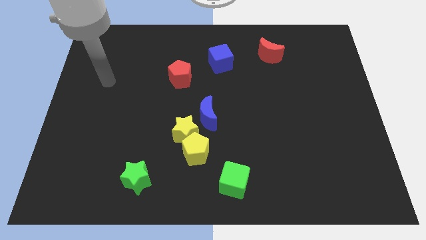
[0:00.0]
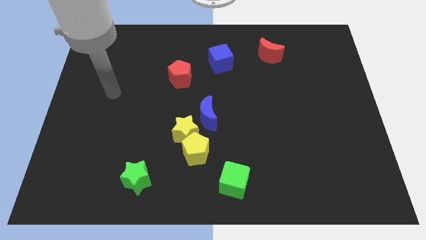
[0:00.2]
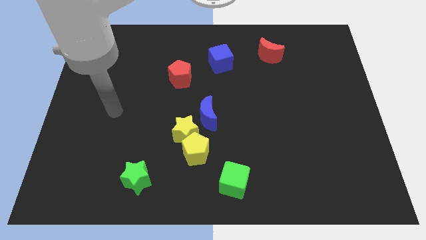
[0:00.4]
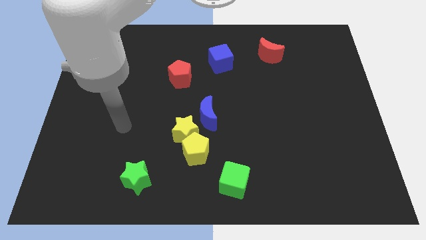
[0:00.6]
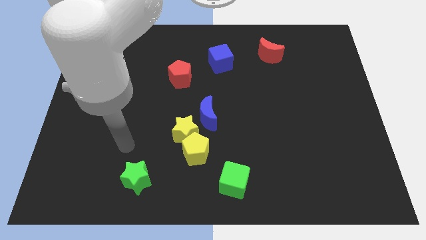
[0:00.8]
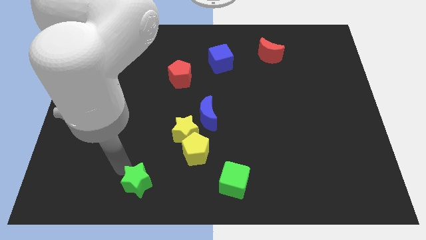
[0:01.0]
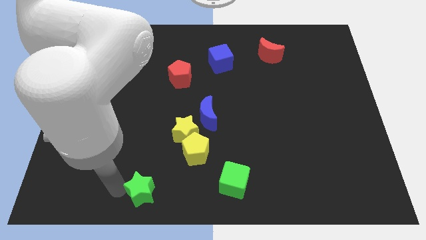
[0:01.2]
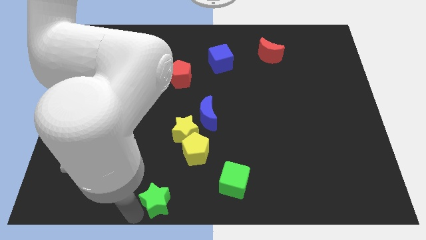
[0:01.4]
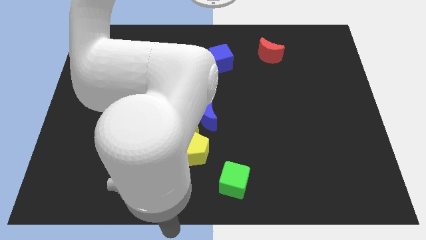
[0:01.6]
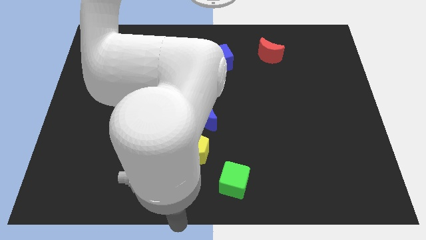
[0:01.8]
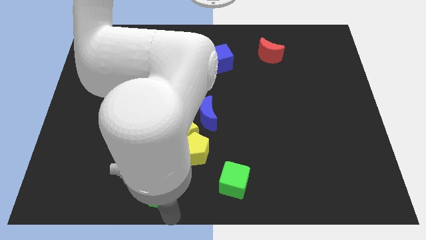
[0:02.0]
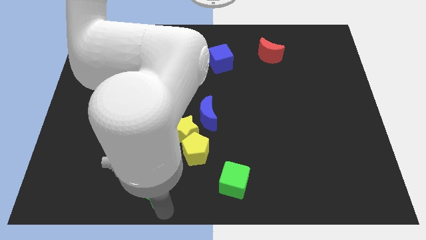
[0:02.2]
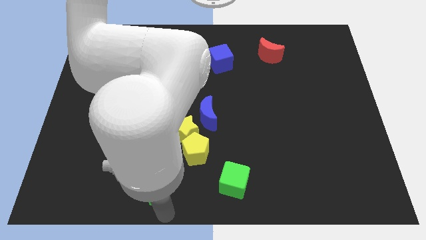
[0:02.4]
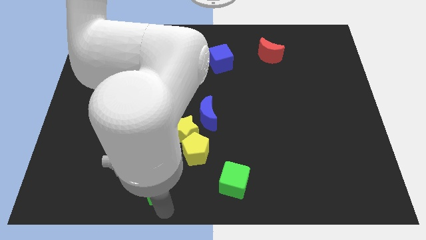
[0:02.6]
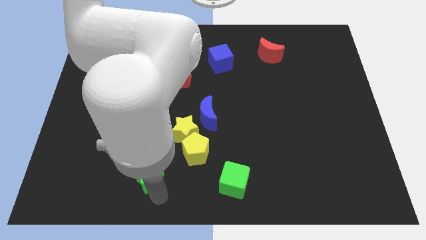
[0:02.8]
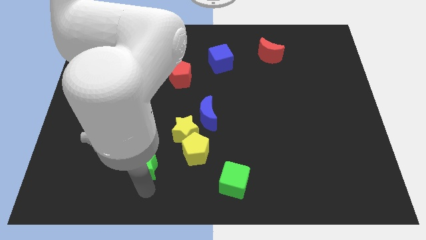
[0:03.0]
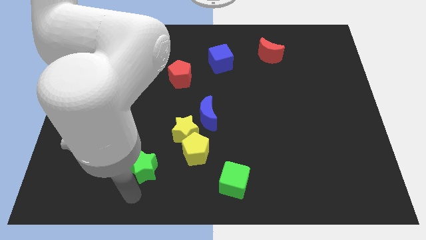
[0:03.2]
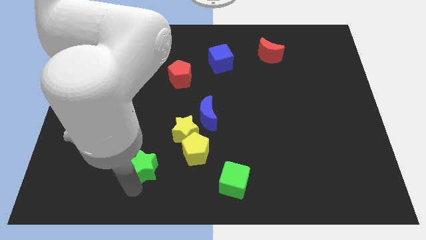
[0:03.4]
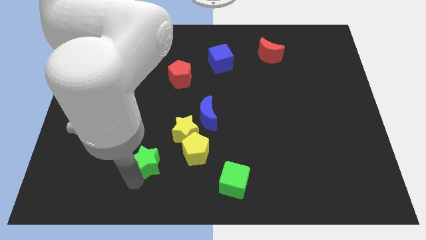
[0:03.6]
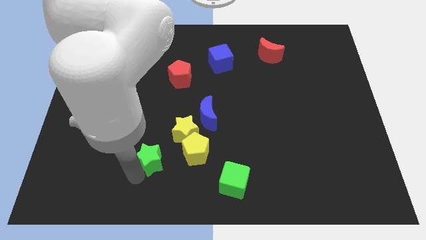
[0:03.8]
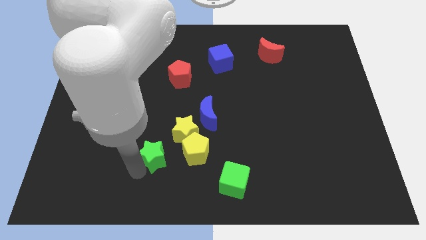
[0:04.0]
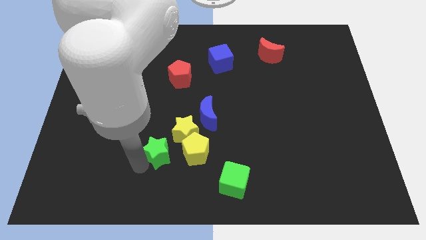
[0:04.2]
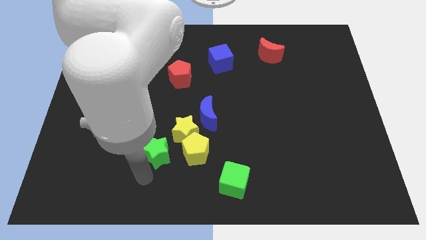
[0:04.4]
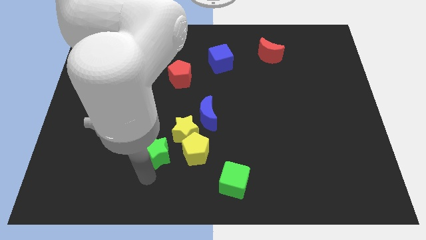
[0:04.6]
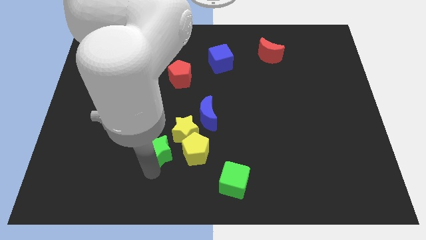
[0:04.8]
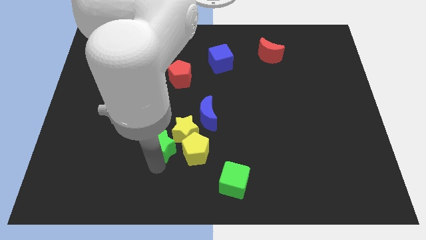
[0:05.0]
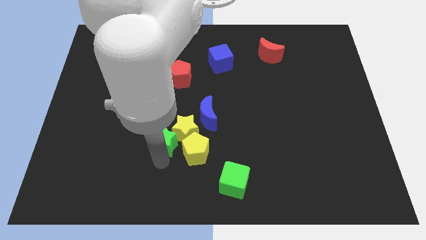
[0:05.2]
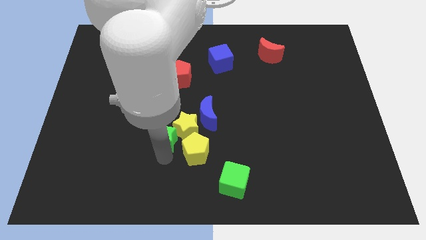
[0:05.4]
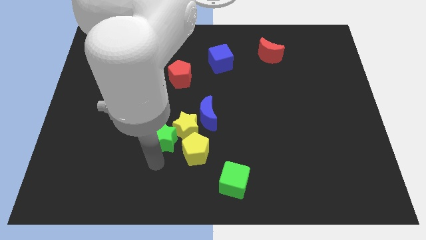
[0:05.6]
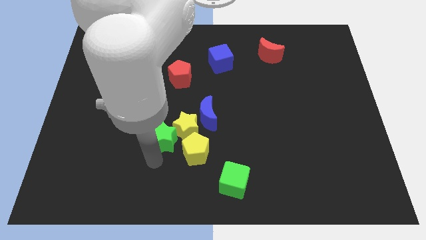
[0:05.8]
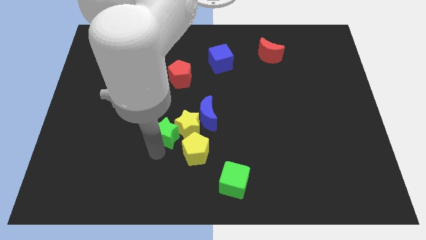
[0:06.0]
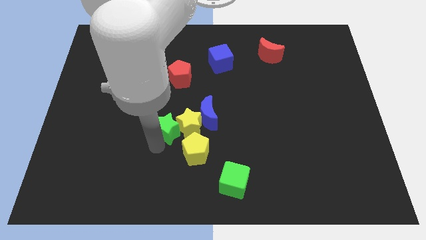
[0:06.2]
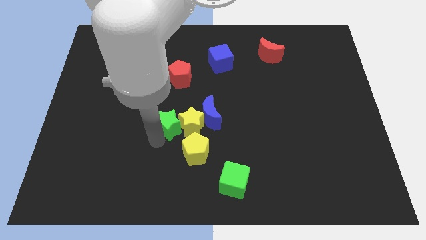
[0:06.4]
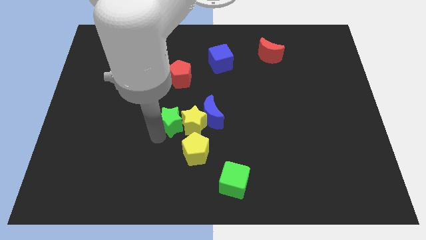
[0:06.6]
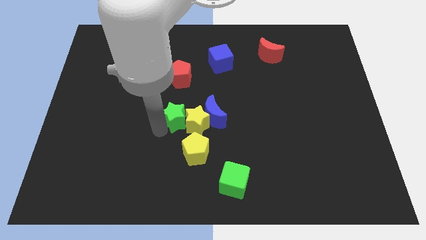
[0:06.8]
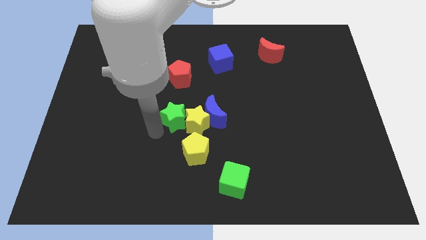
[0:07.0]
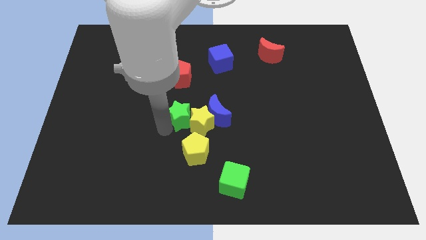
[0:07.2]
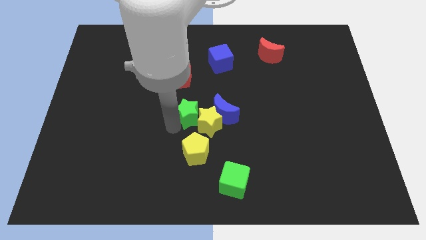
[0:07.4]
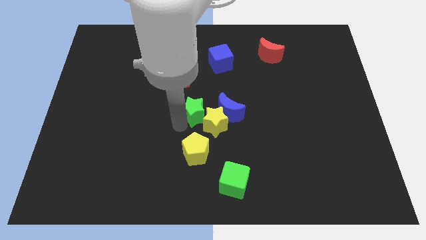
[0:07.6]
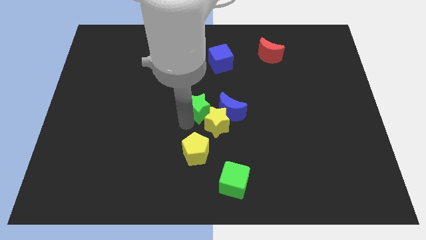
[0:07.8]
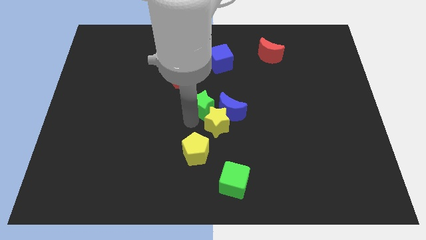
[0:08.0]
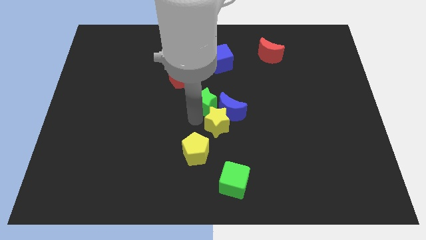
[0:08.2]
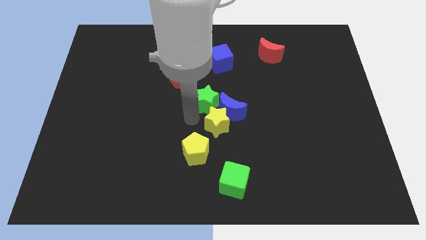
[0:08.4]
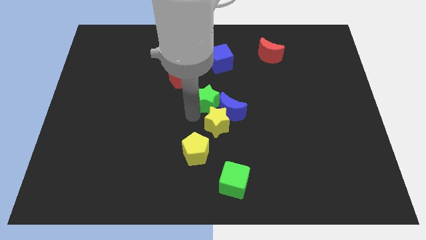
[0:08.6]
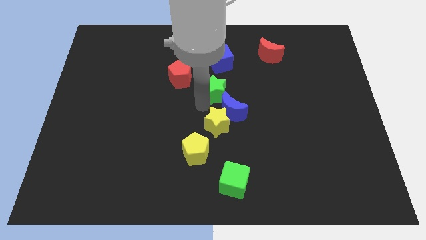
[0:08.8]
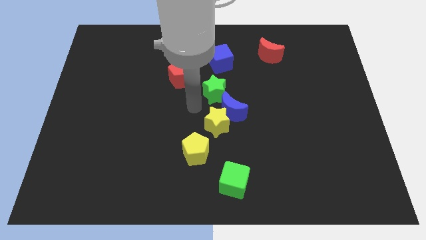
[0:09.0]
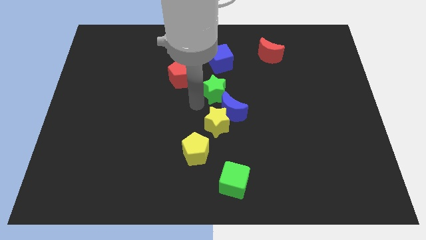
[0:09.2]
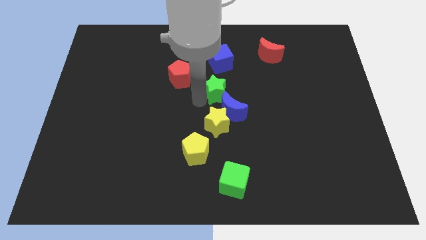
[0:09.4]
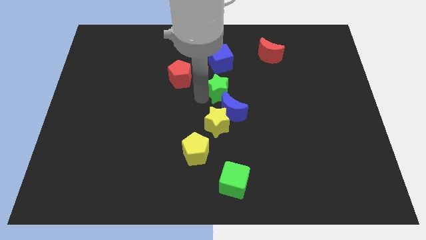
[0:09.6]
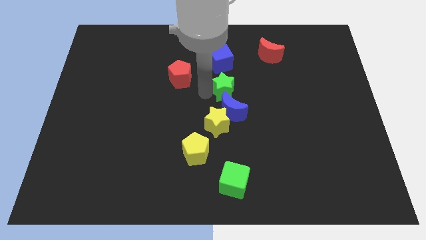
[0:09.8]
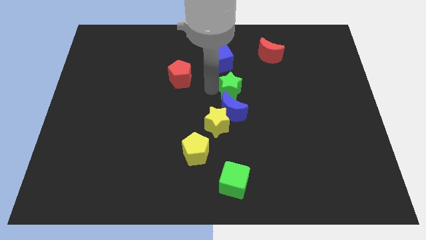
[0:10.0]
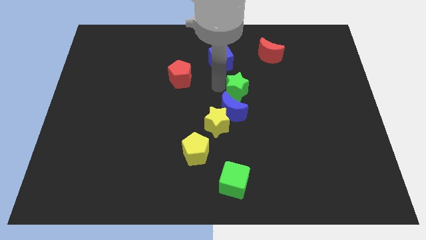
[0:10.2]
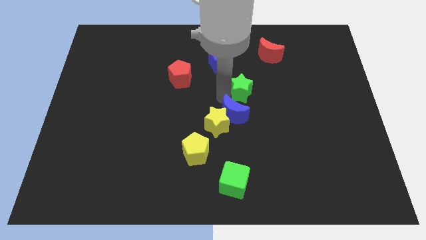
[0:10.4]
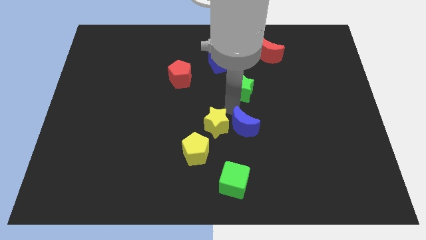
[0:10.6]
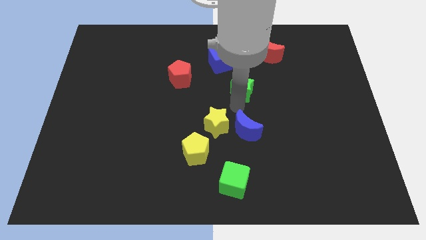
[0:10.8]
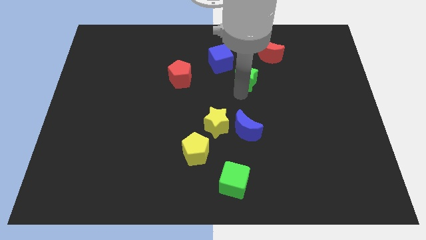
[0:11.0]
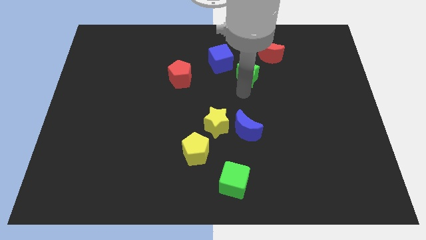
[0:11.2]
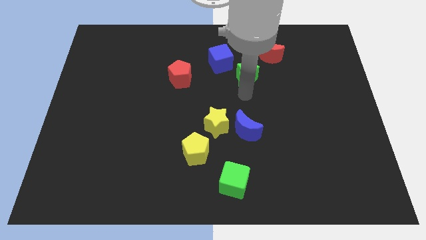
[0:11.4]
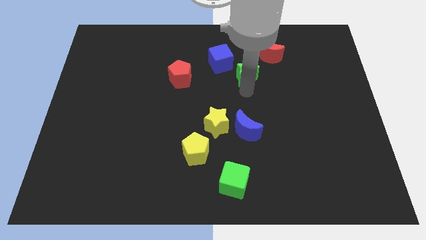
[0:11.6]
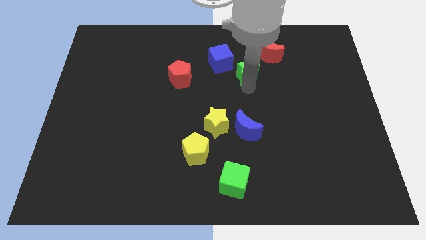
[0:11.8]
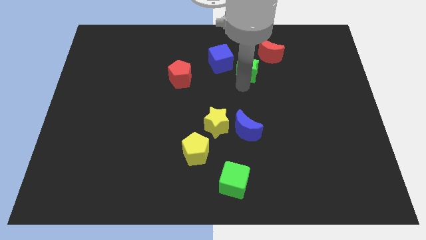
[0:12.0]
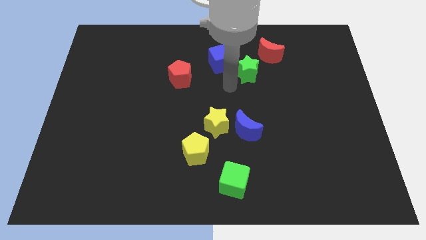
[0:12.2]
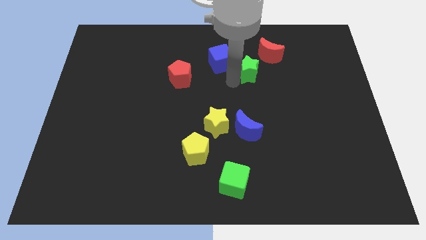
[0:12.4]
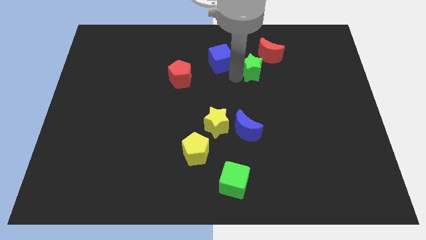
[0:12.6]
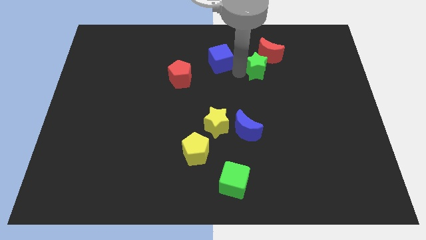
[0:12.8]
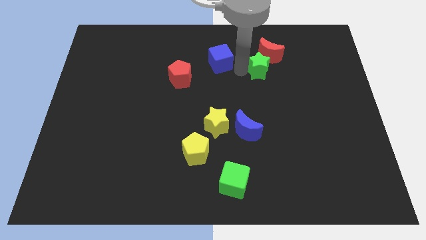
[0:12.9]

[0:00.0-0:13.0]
slide the green star to the red moon
